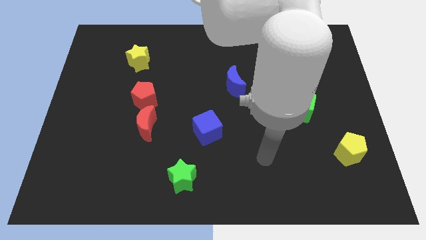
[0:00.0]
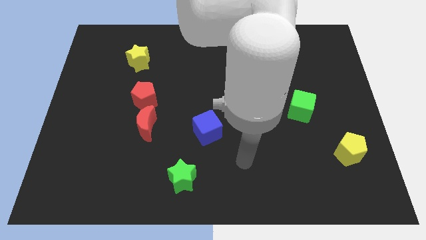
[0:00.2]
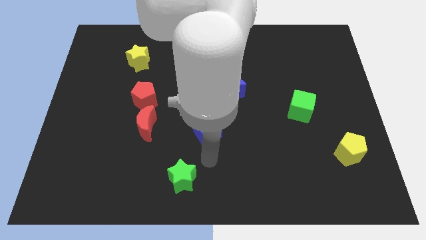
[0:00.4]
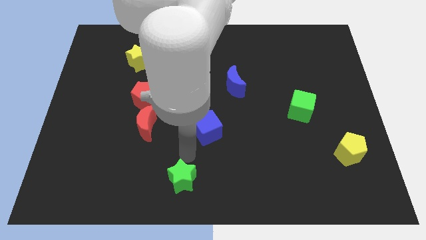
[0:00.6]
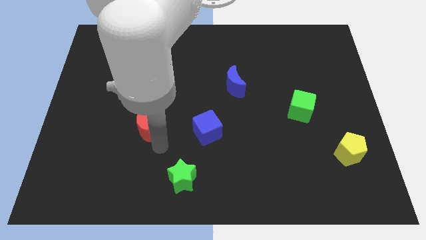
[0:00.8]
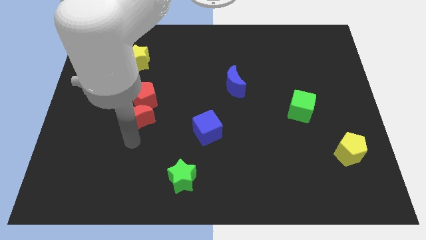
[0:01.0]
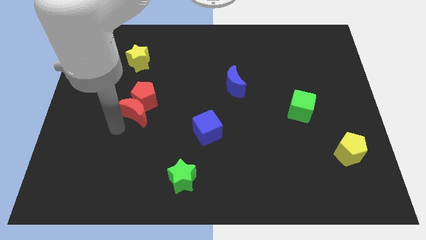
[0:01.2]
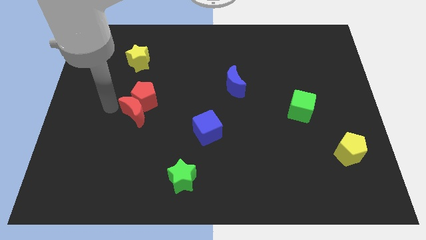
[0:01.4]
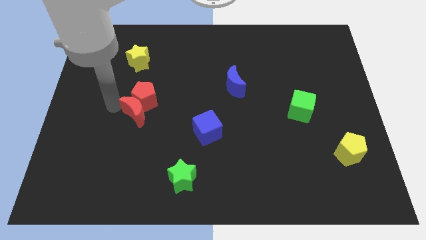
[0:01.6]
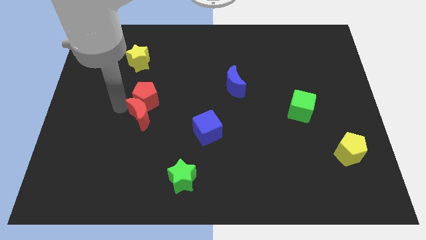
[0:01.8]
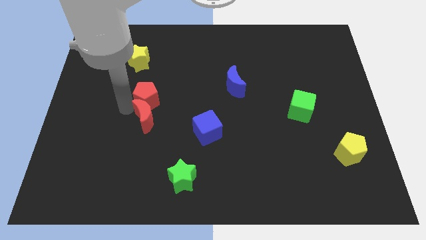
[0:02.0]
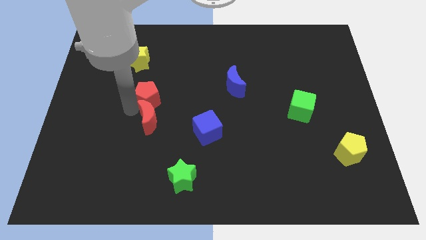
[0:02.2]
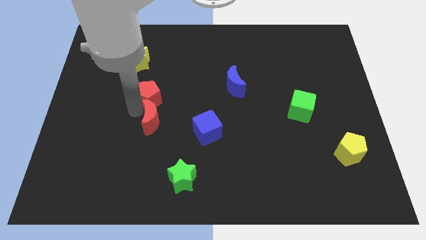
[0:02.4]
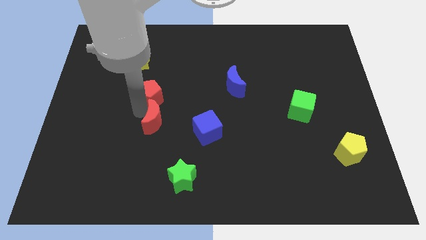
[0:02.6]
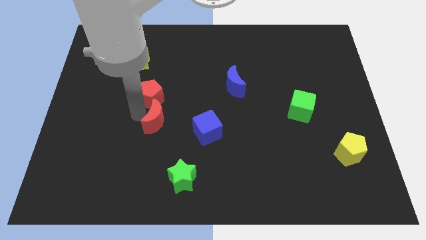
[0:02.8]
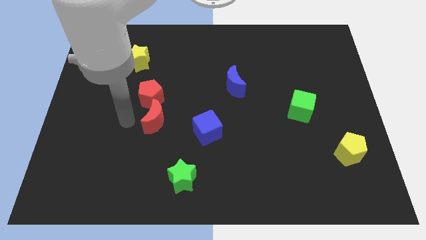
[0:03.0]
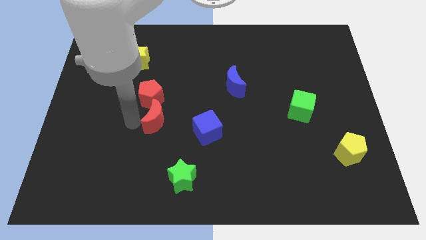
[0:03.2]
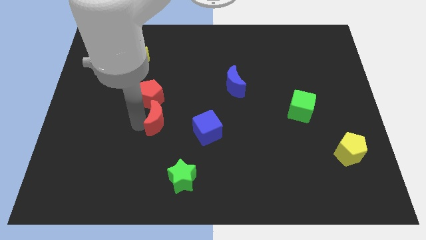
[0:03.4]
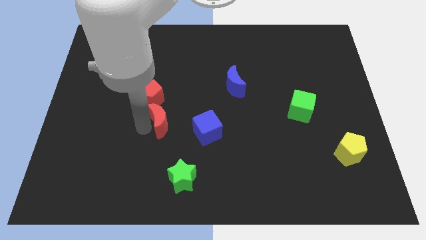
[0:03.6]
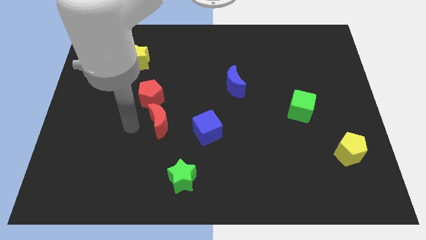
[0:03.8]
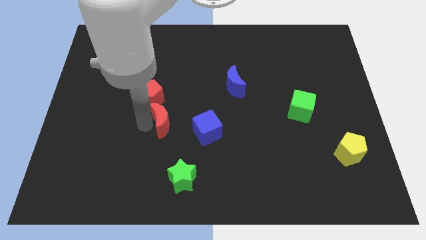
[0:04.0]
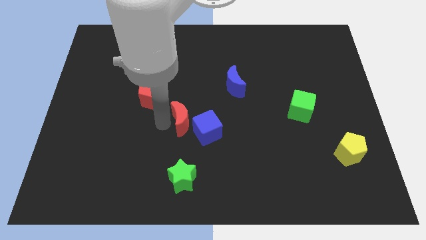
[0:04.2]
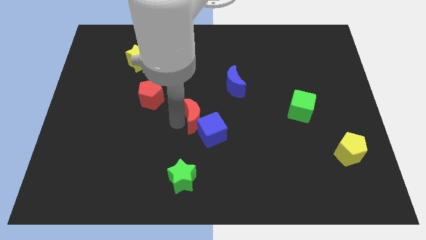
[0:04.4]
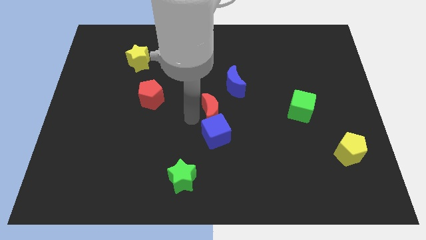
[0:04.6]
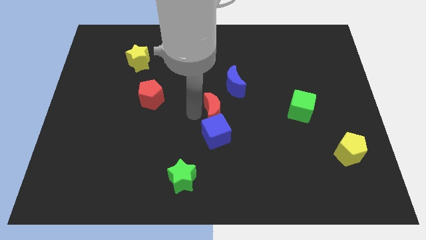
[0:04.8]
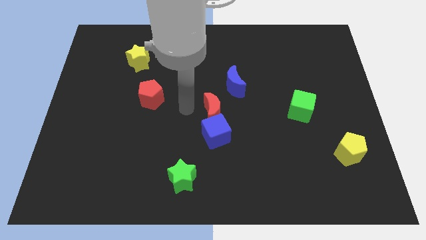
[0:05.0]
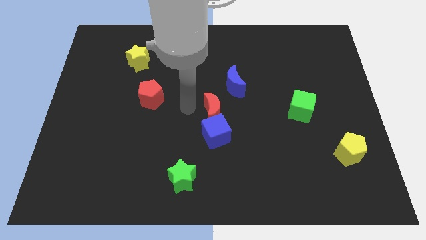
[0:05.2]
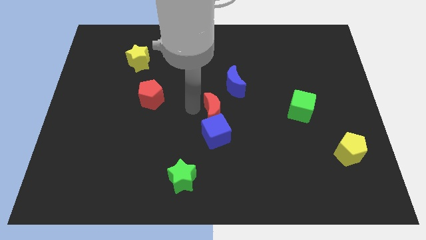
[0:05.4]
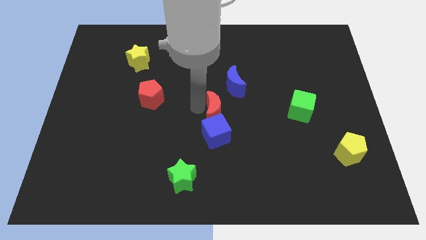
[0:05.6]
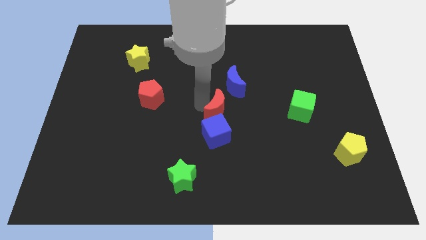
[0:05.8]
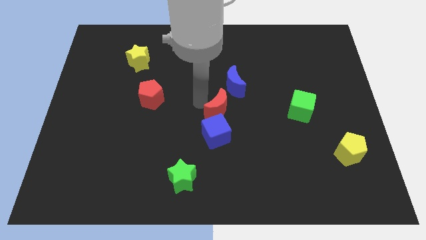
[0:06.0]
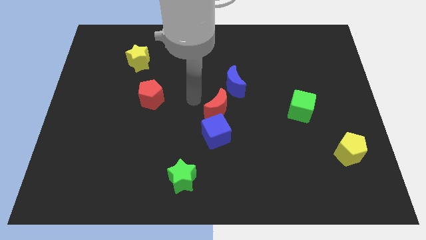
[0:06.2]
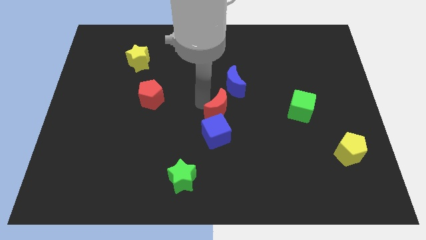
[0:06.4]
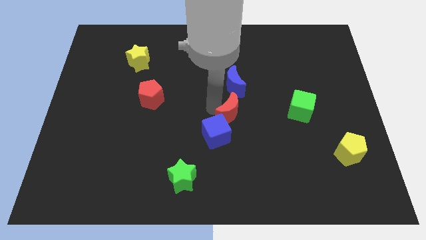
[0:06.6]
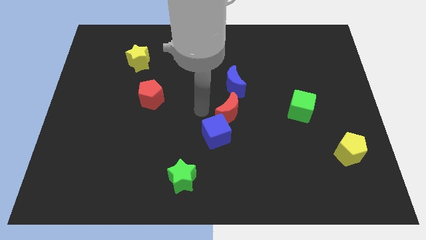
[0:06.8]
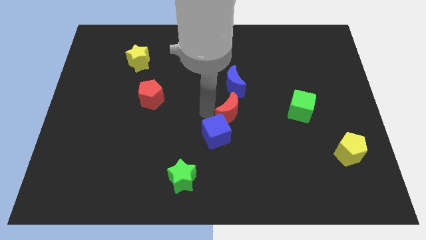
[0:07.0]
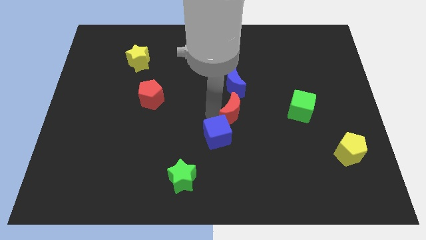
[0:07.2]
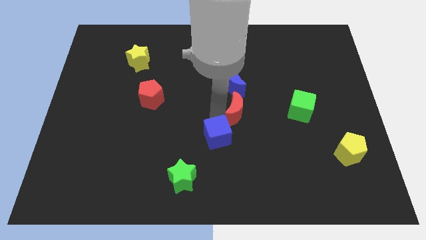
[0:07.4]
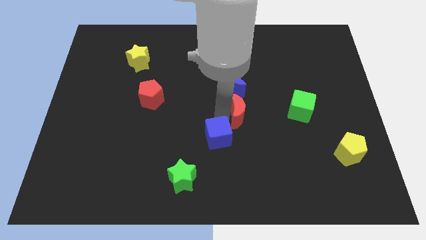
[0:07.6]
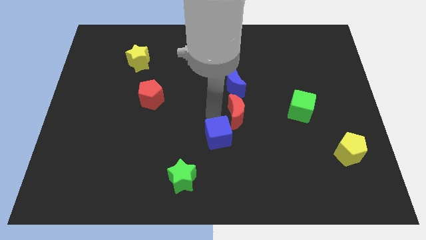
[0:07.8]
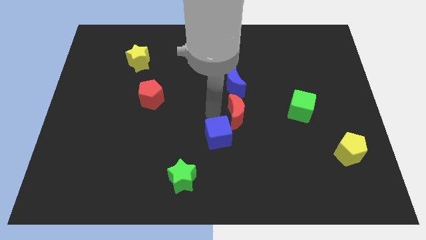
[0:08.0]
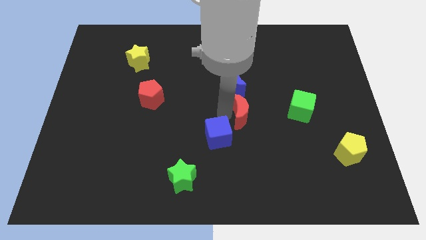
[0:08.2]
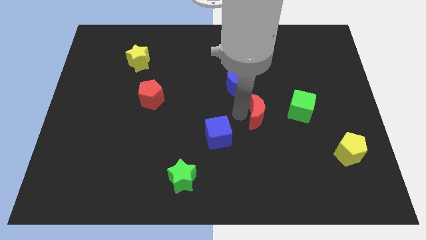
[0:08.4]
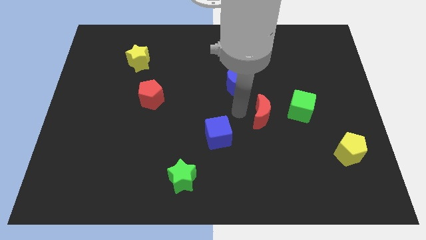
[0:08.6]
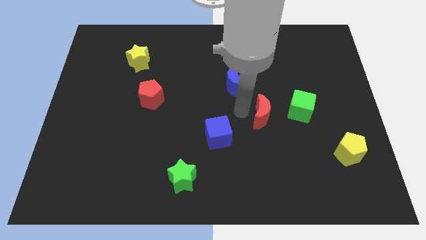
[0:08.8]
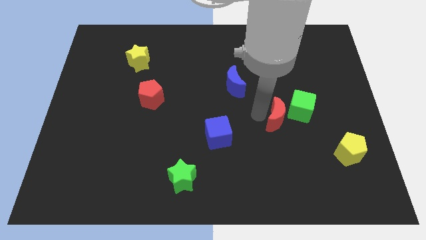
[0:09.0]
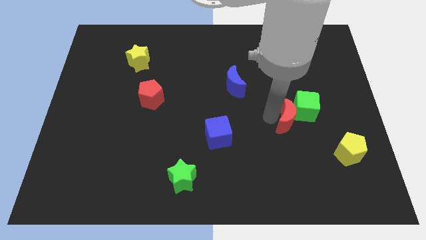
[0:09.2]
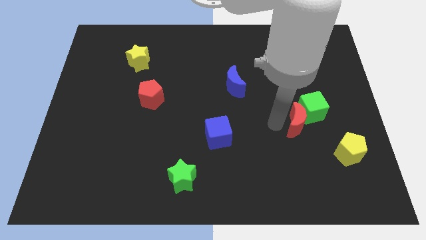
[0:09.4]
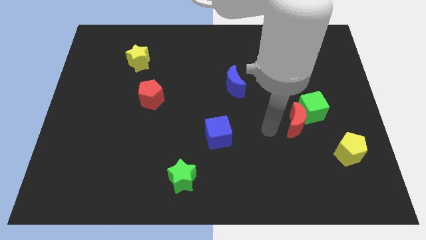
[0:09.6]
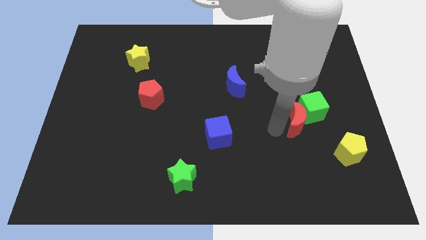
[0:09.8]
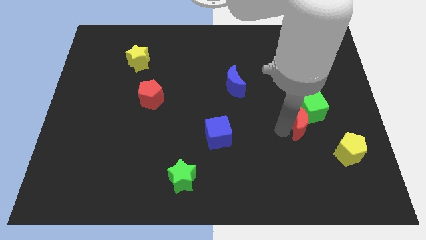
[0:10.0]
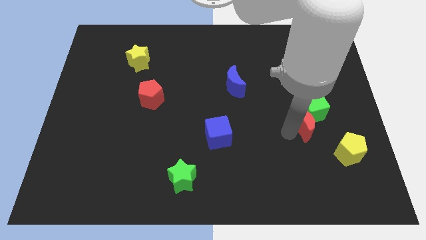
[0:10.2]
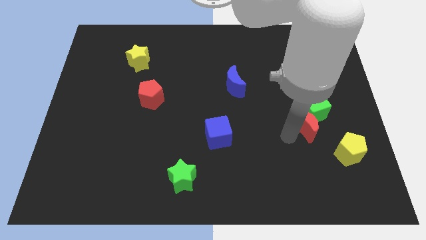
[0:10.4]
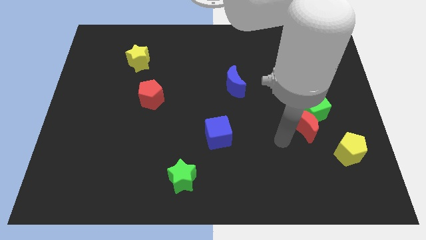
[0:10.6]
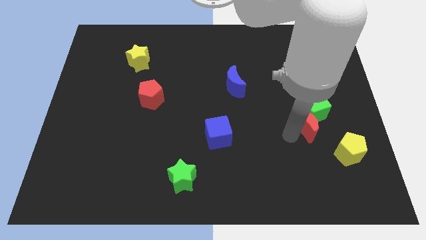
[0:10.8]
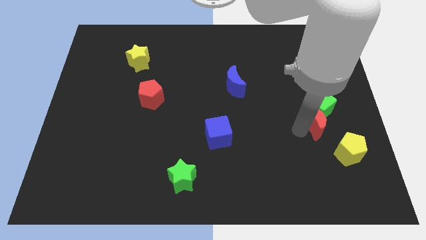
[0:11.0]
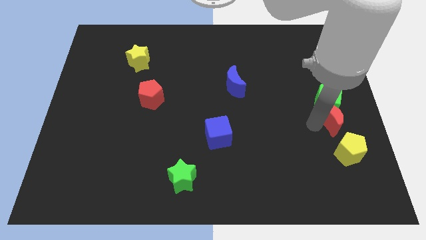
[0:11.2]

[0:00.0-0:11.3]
put the red moon to the right side of the board

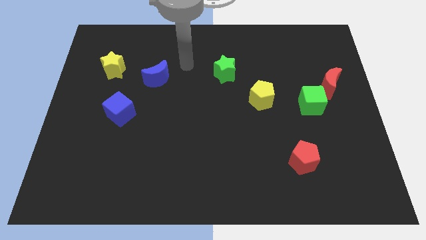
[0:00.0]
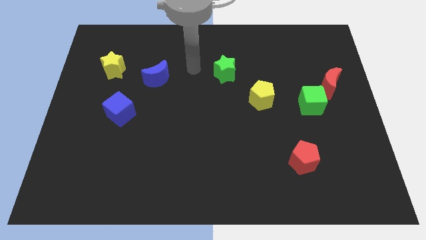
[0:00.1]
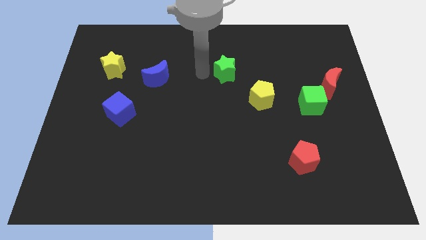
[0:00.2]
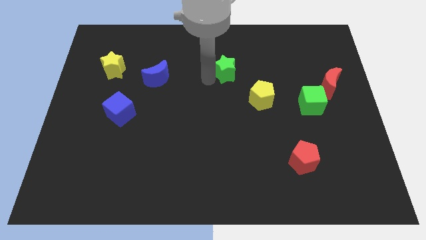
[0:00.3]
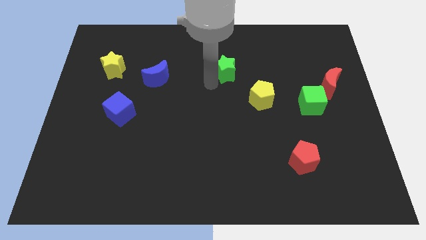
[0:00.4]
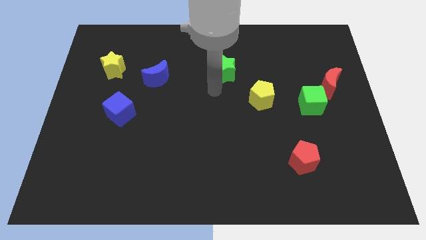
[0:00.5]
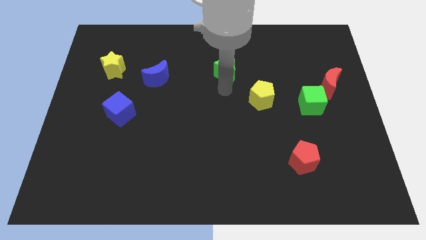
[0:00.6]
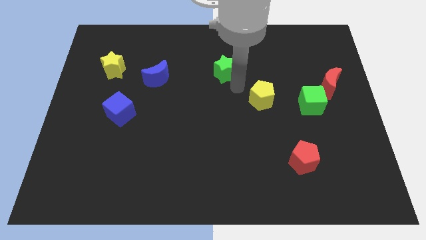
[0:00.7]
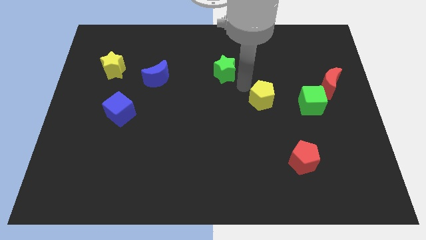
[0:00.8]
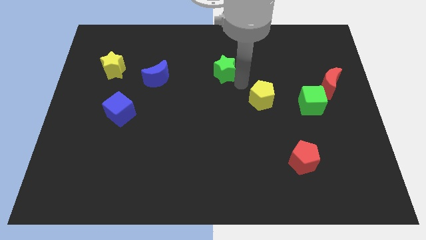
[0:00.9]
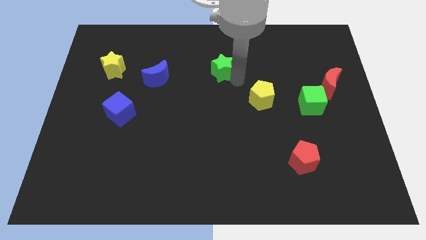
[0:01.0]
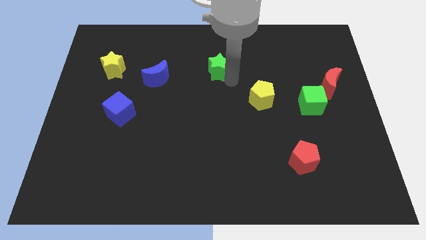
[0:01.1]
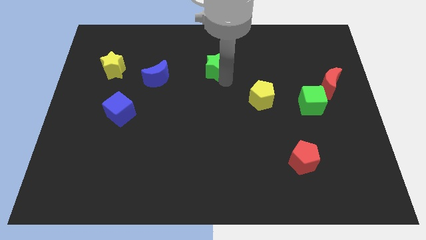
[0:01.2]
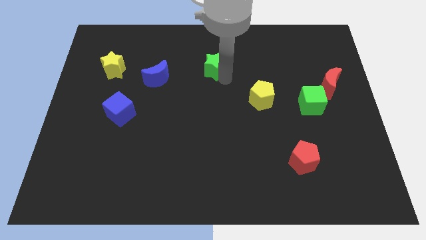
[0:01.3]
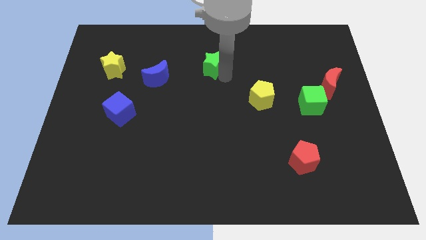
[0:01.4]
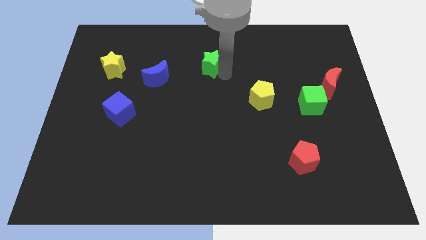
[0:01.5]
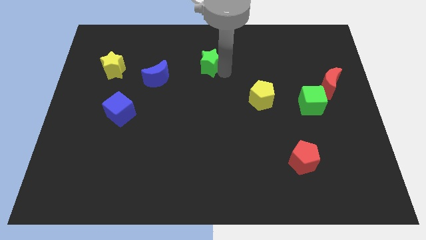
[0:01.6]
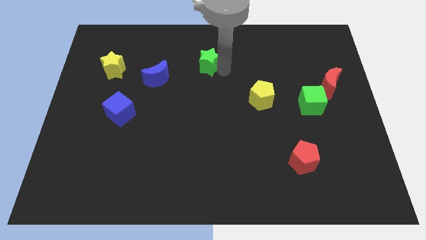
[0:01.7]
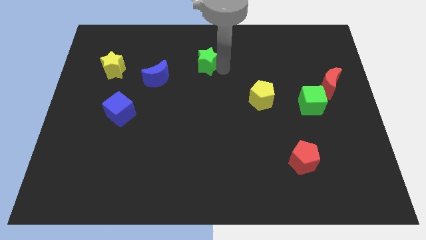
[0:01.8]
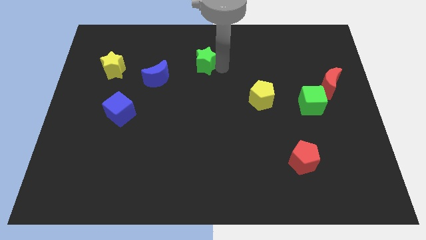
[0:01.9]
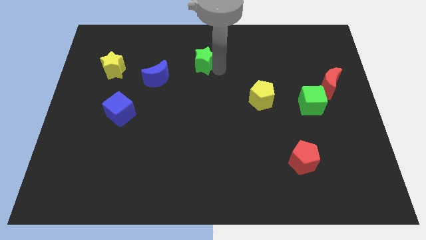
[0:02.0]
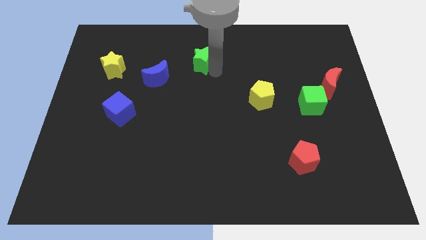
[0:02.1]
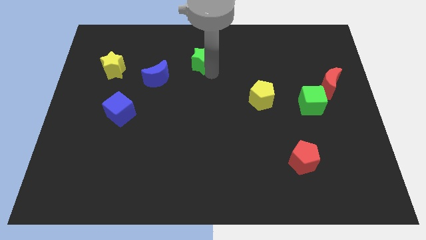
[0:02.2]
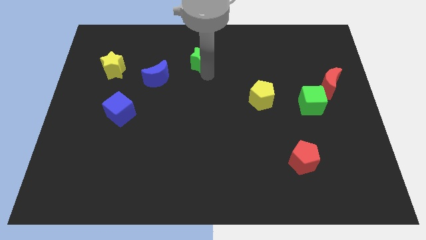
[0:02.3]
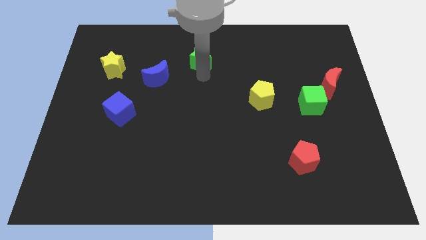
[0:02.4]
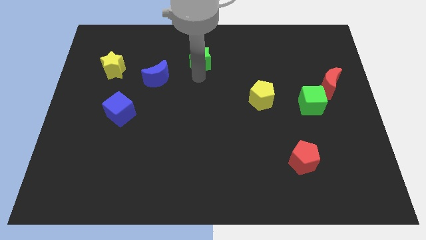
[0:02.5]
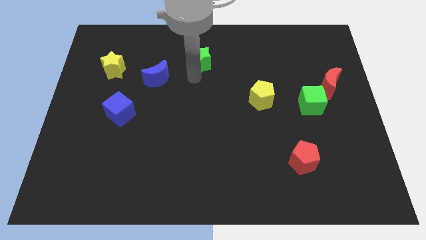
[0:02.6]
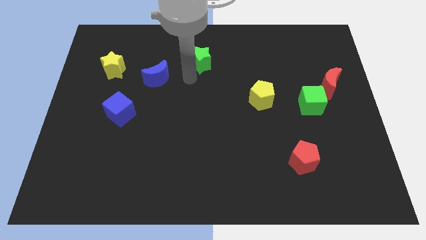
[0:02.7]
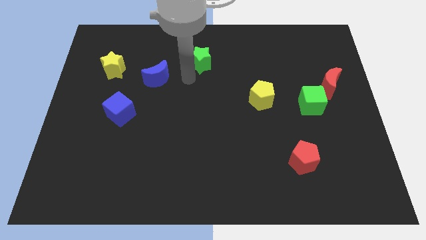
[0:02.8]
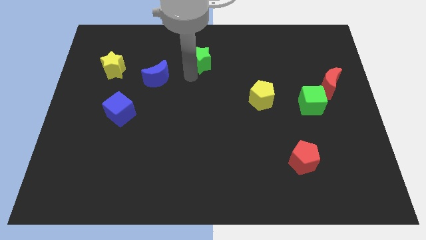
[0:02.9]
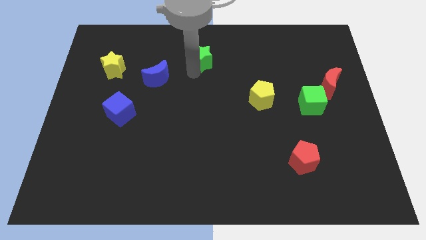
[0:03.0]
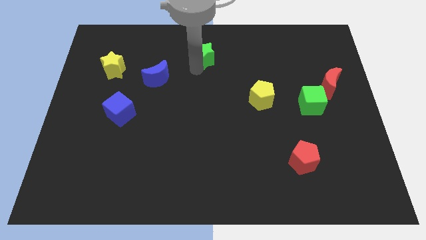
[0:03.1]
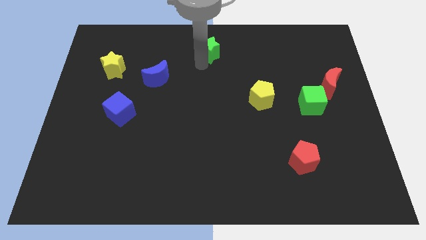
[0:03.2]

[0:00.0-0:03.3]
push the green star to the top
